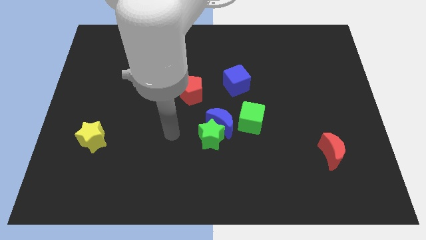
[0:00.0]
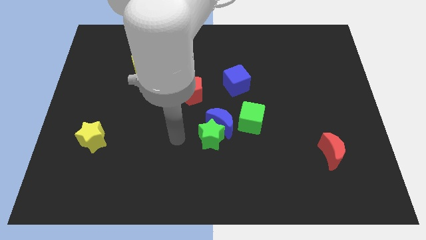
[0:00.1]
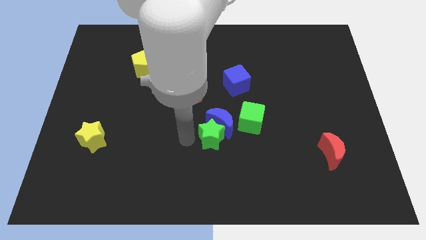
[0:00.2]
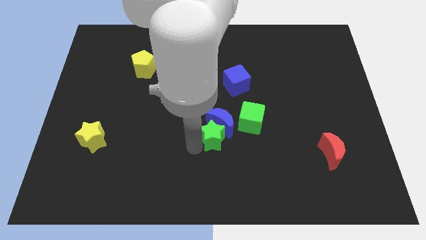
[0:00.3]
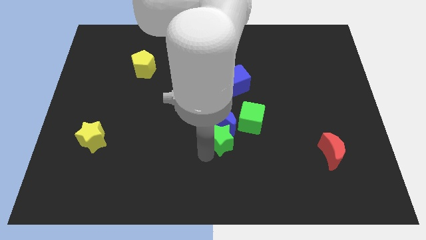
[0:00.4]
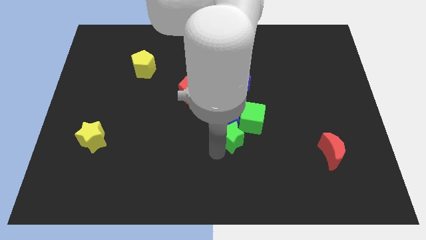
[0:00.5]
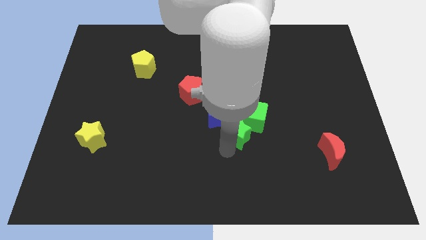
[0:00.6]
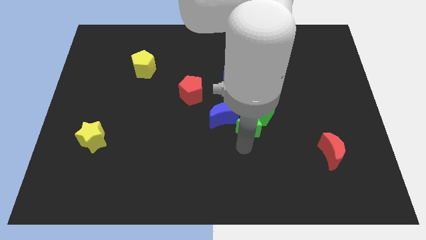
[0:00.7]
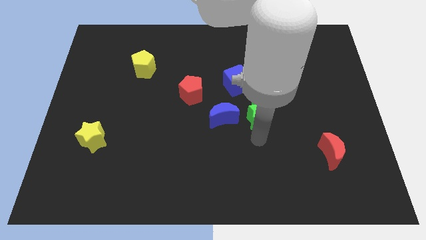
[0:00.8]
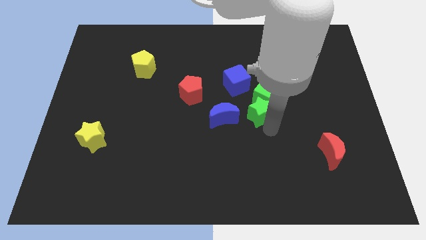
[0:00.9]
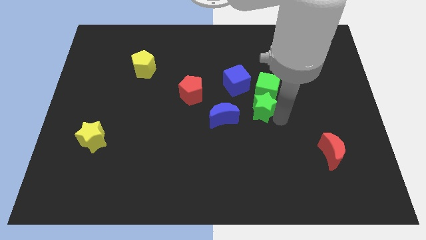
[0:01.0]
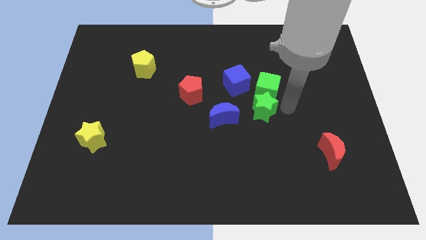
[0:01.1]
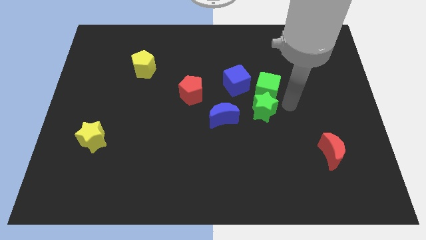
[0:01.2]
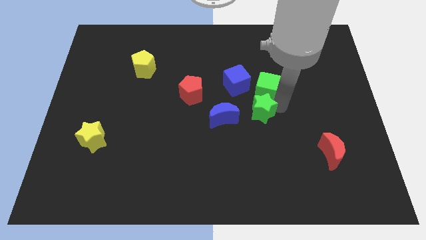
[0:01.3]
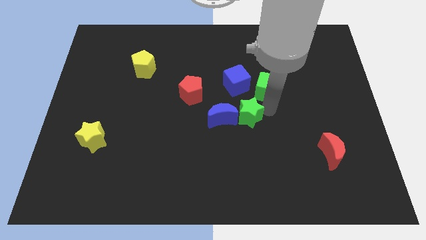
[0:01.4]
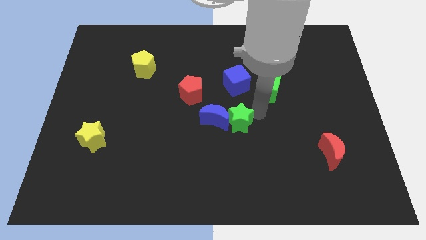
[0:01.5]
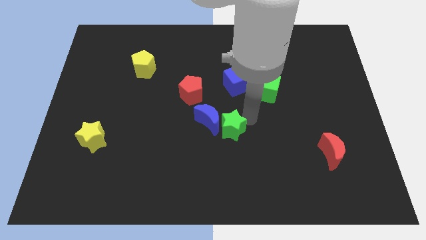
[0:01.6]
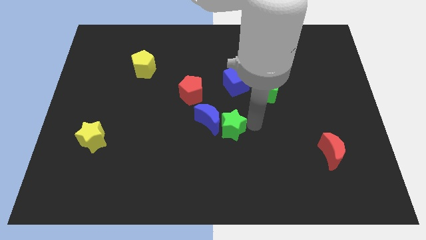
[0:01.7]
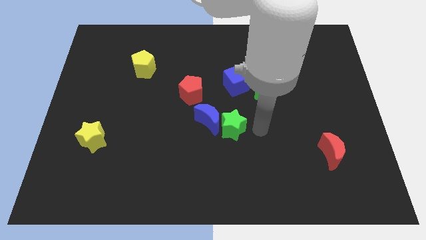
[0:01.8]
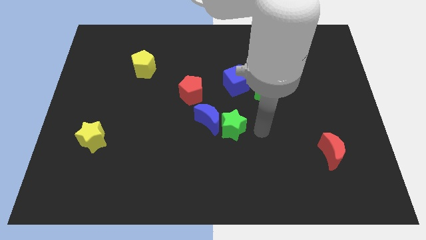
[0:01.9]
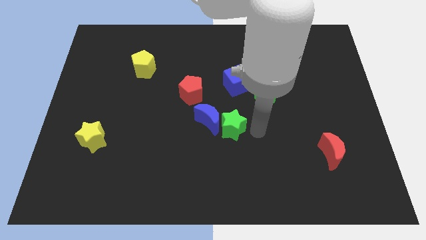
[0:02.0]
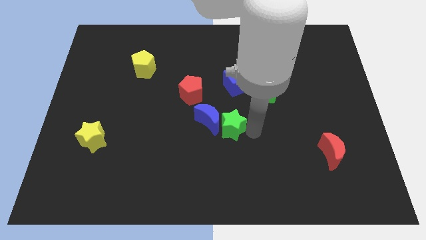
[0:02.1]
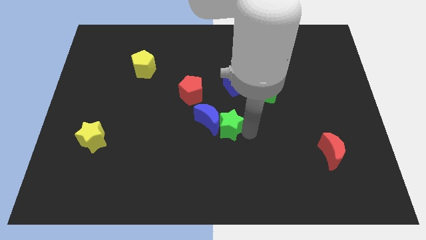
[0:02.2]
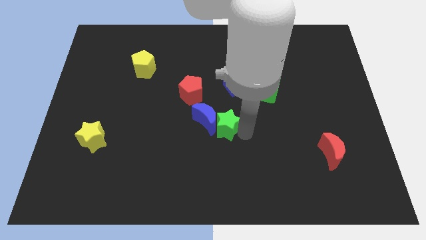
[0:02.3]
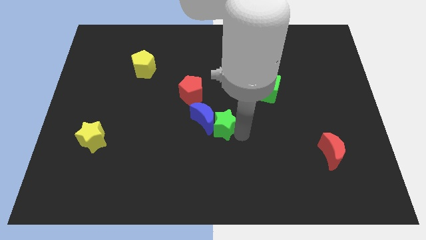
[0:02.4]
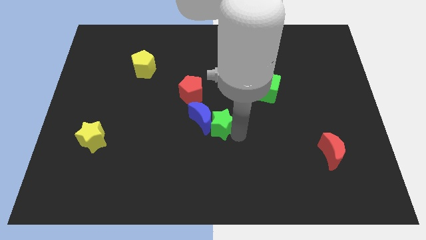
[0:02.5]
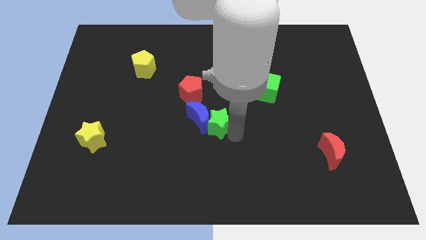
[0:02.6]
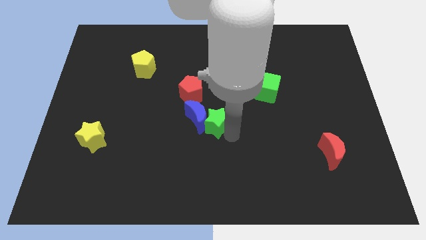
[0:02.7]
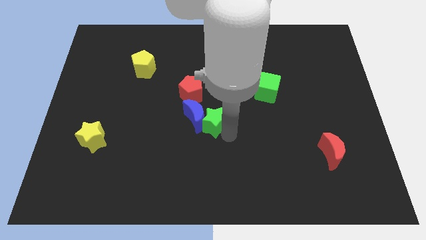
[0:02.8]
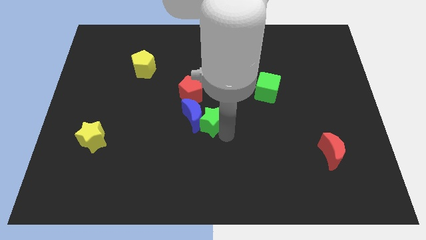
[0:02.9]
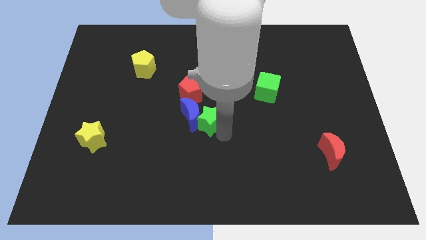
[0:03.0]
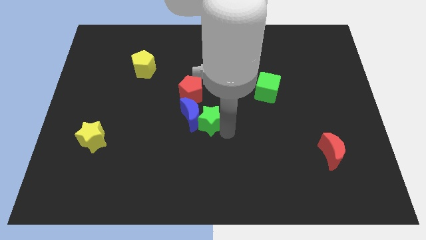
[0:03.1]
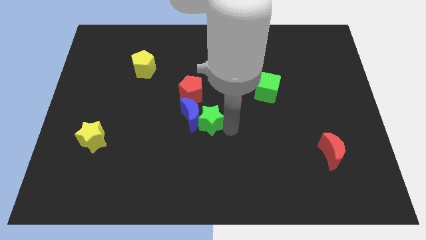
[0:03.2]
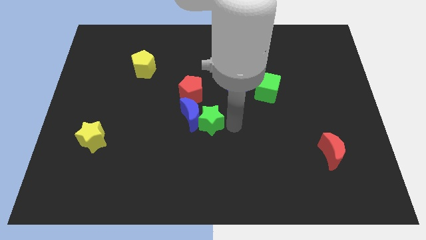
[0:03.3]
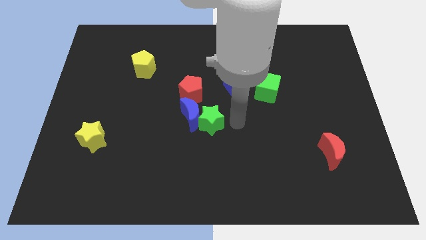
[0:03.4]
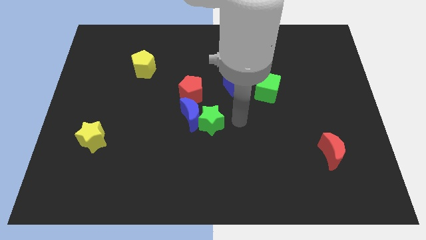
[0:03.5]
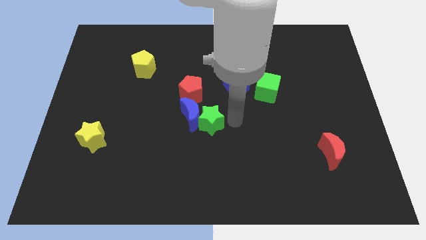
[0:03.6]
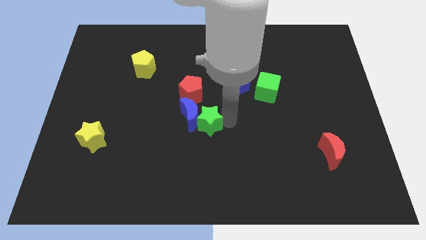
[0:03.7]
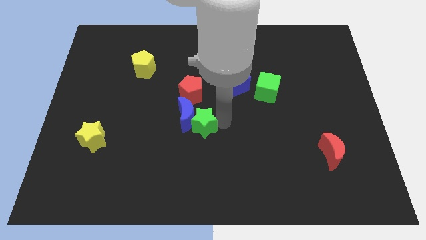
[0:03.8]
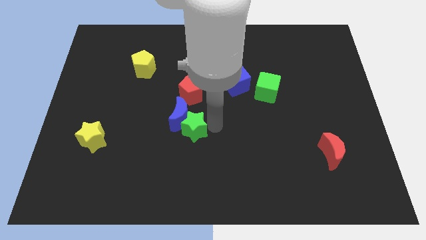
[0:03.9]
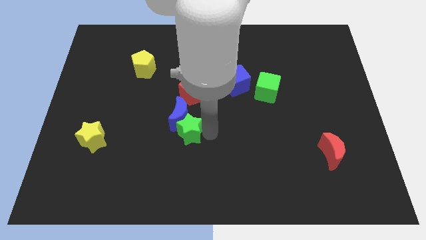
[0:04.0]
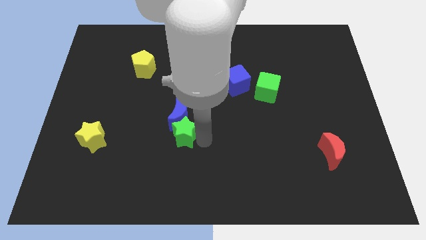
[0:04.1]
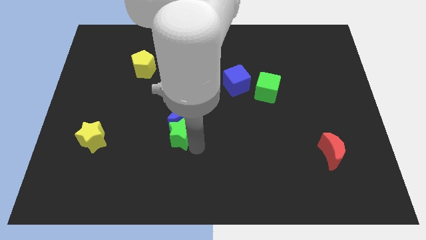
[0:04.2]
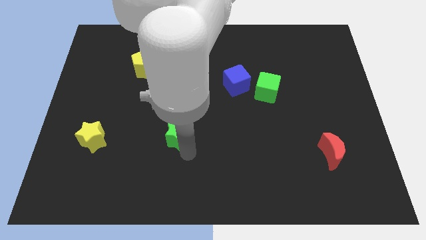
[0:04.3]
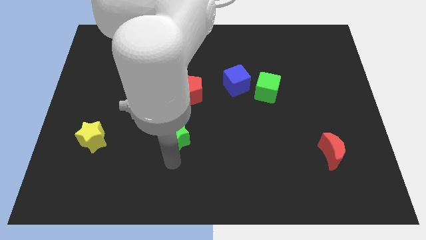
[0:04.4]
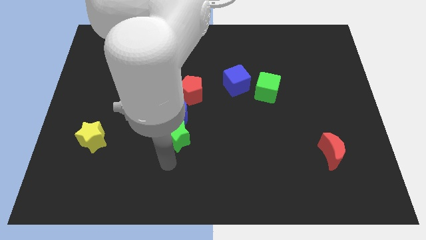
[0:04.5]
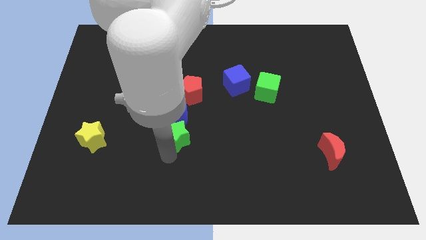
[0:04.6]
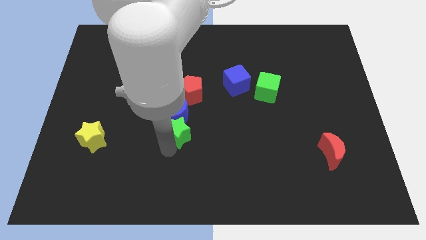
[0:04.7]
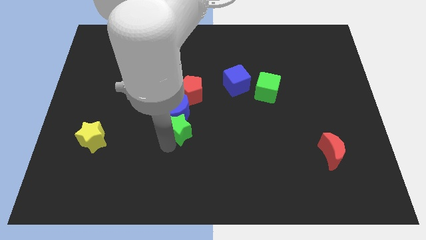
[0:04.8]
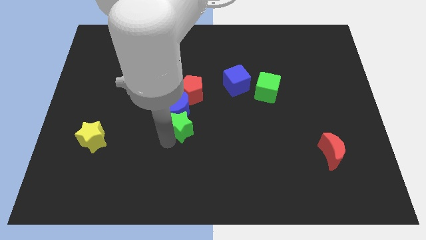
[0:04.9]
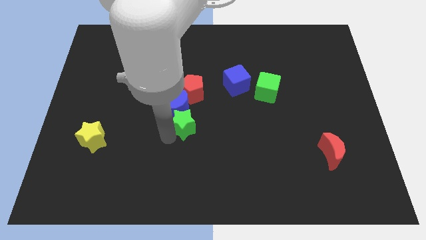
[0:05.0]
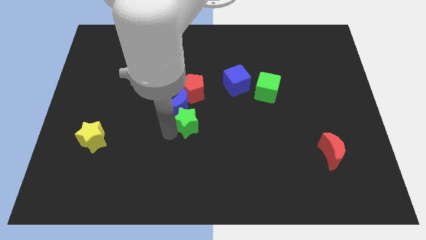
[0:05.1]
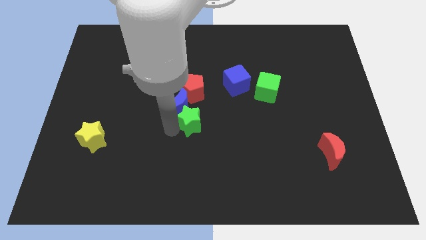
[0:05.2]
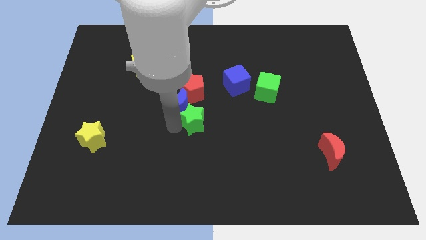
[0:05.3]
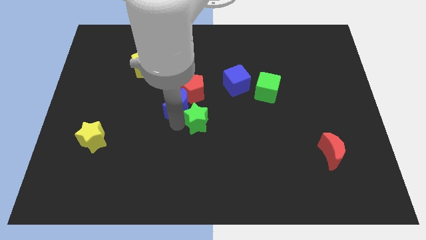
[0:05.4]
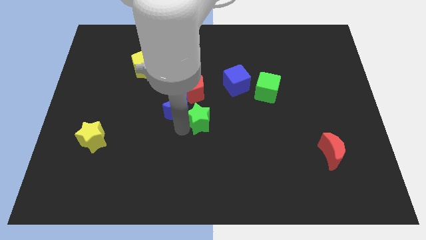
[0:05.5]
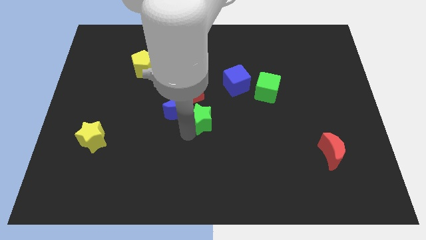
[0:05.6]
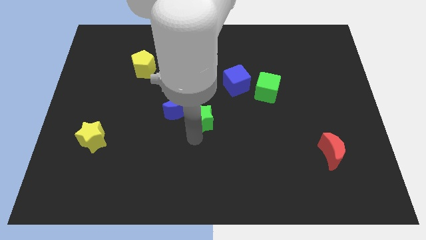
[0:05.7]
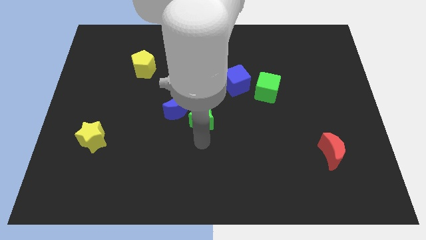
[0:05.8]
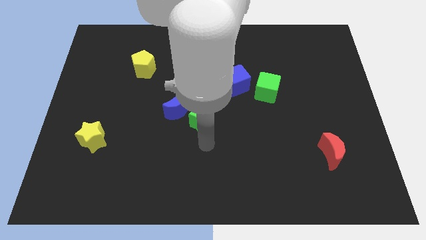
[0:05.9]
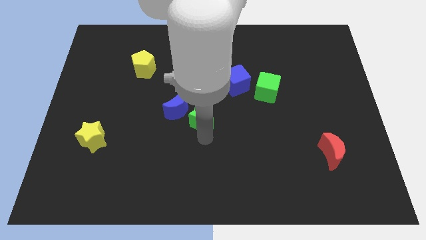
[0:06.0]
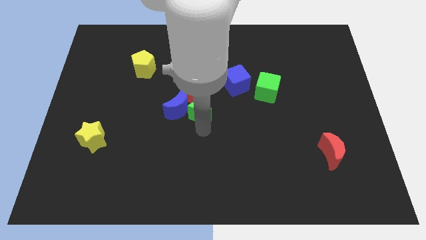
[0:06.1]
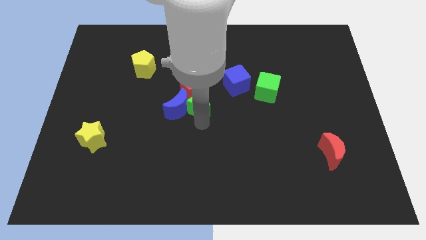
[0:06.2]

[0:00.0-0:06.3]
slide the green star to the red pentagon

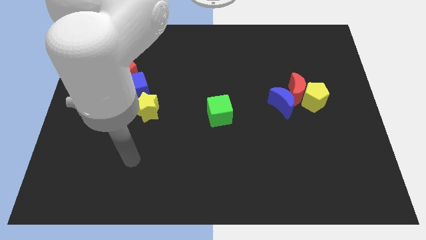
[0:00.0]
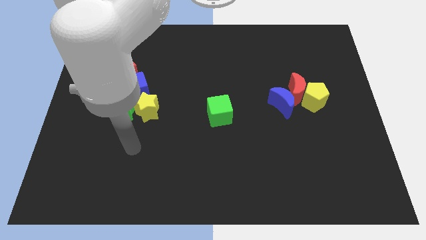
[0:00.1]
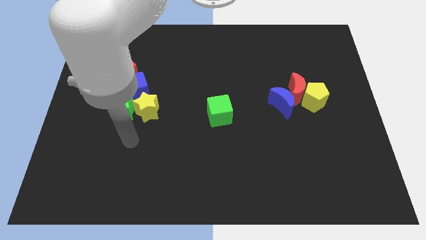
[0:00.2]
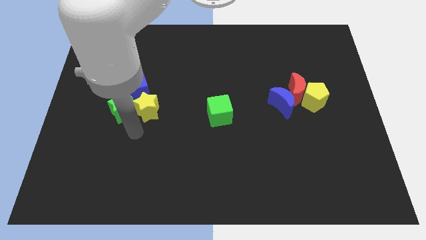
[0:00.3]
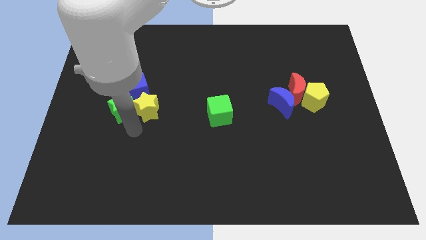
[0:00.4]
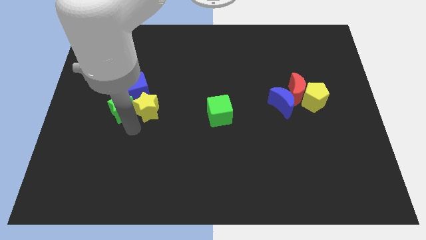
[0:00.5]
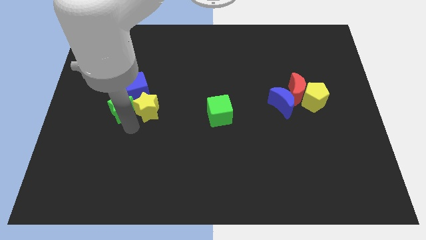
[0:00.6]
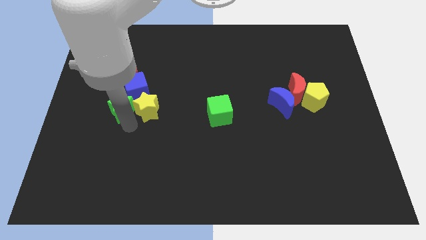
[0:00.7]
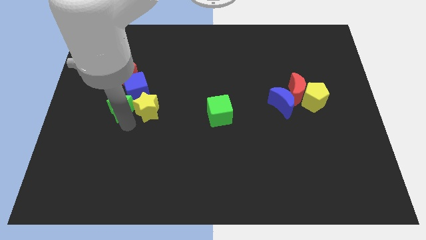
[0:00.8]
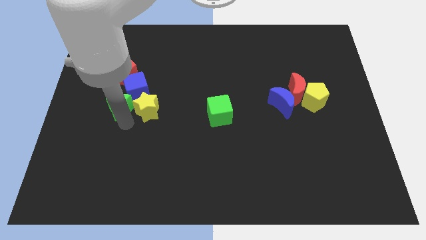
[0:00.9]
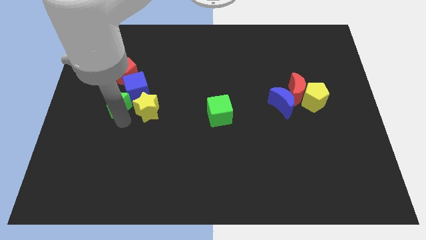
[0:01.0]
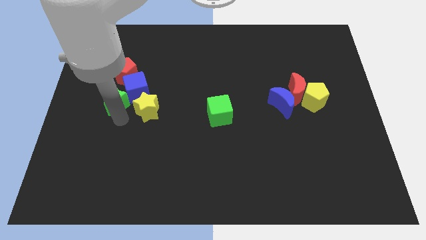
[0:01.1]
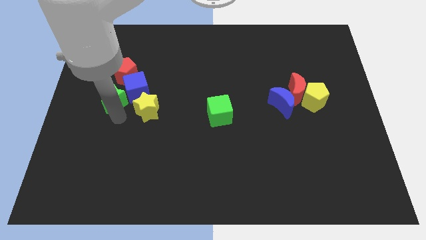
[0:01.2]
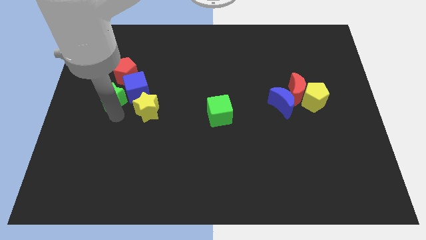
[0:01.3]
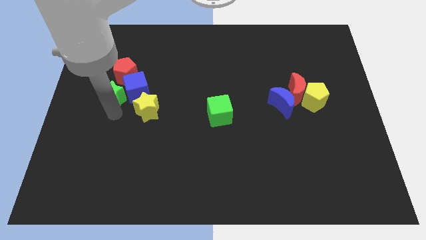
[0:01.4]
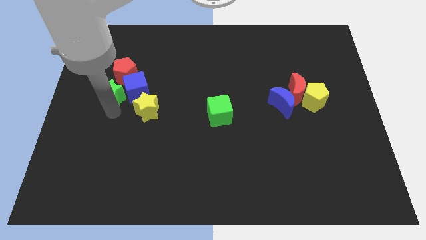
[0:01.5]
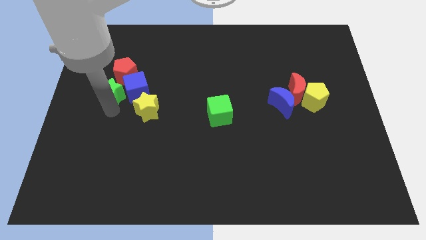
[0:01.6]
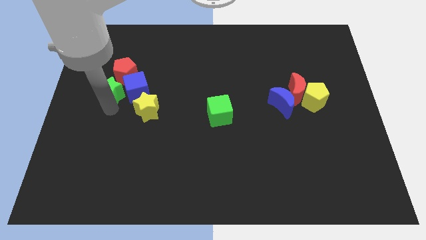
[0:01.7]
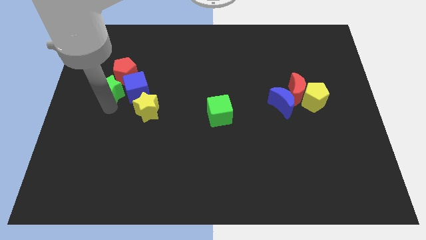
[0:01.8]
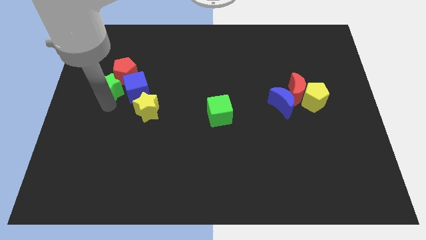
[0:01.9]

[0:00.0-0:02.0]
move the green star towards the red pentagon
